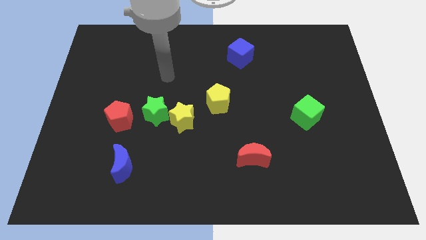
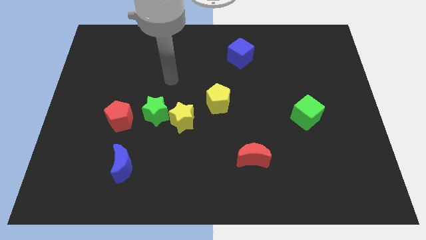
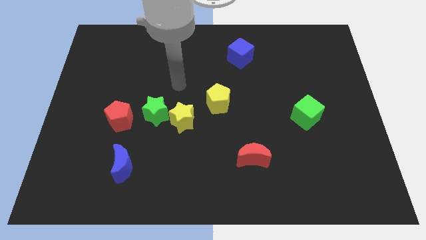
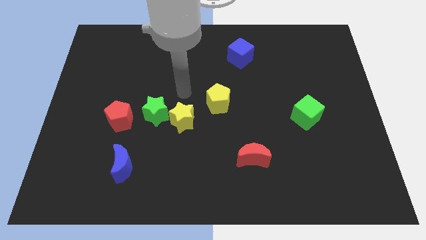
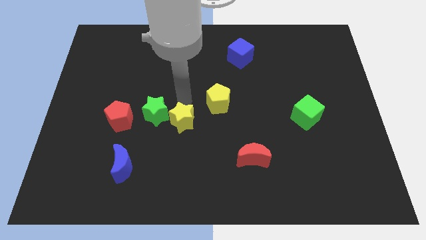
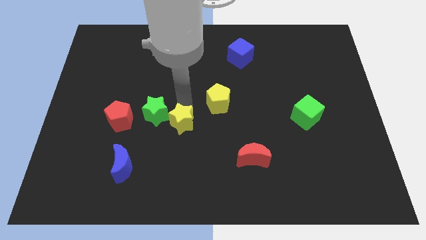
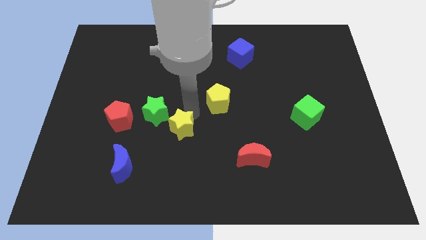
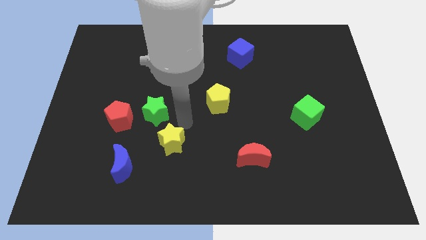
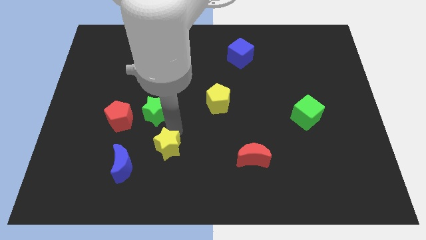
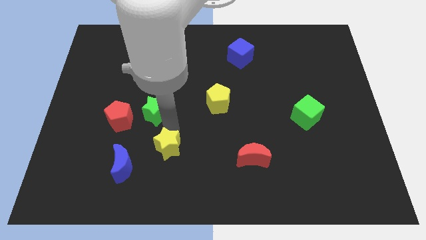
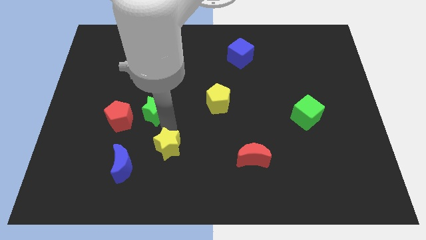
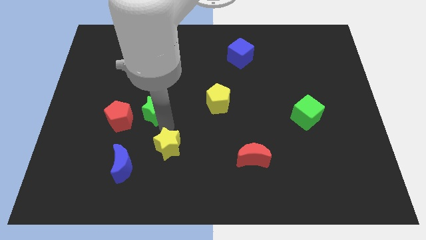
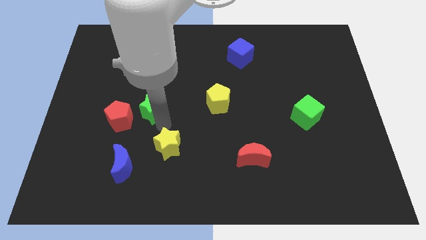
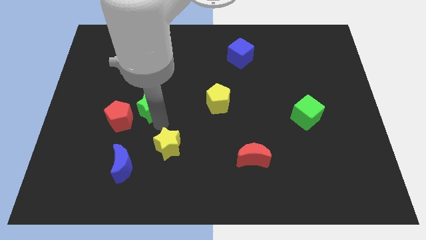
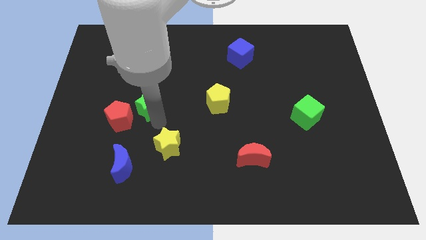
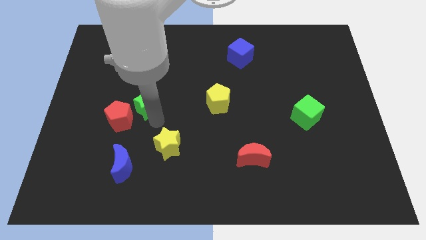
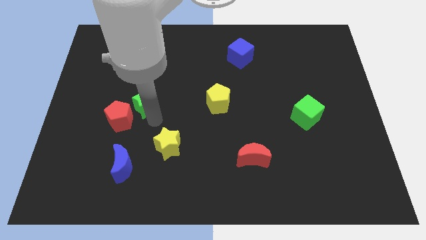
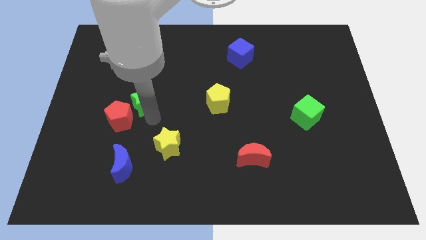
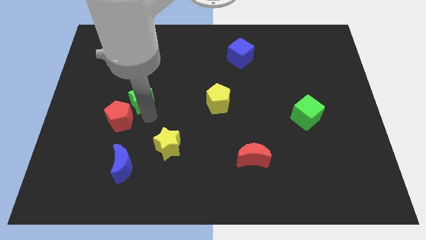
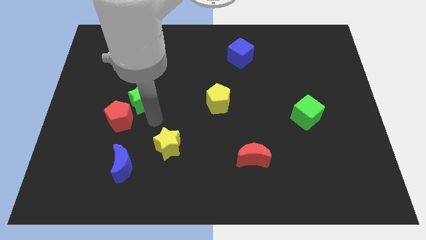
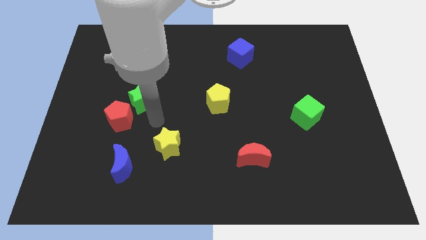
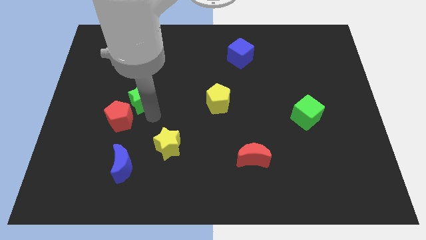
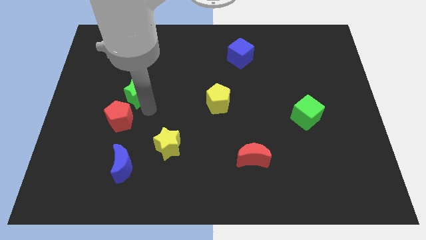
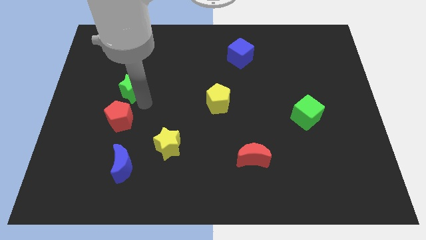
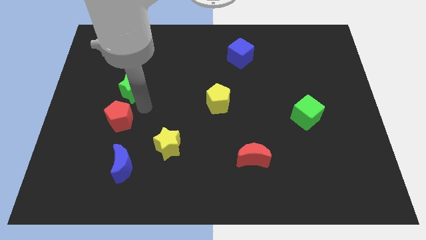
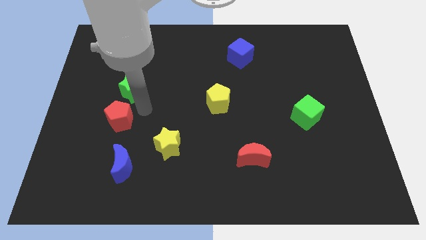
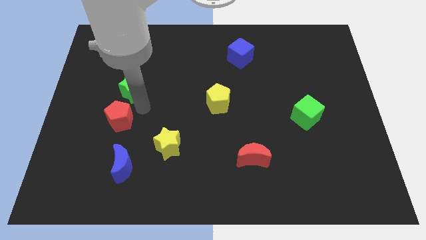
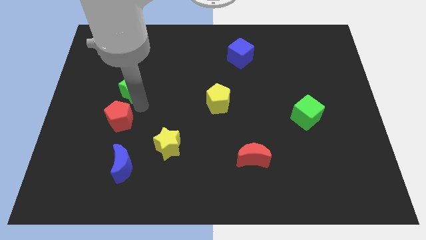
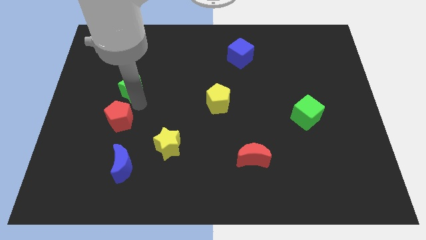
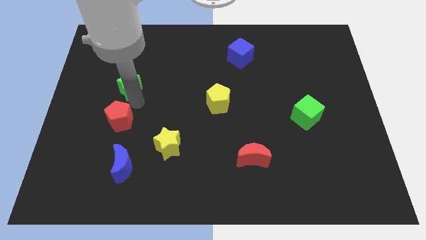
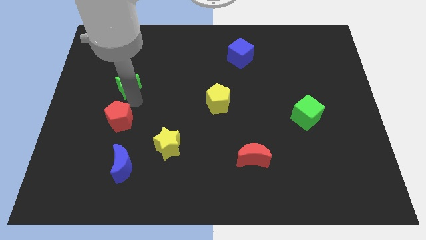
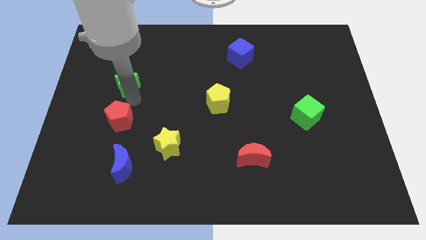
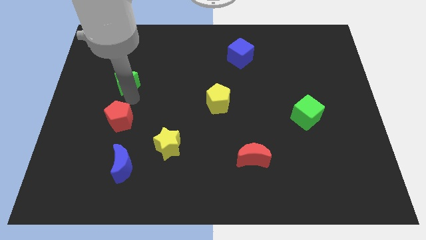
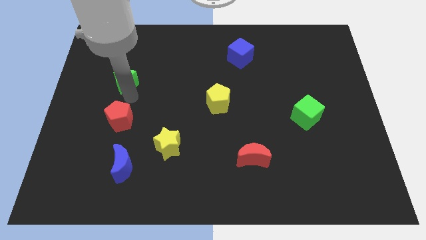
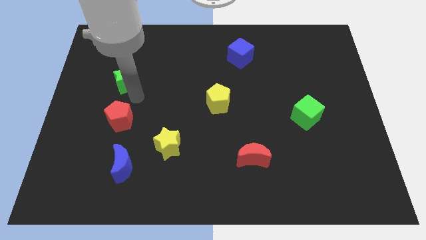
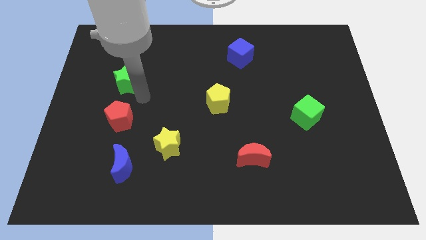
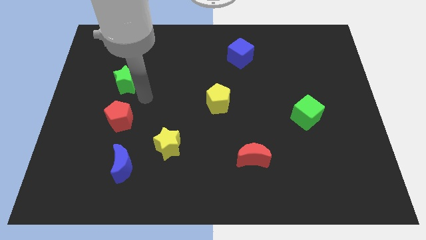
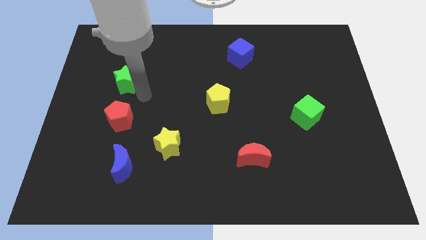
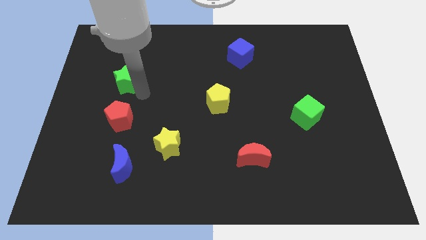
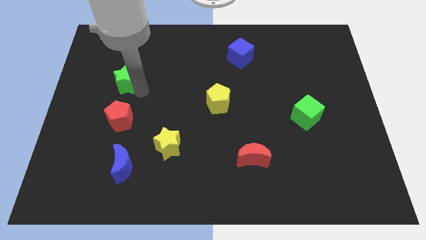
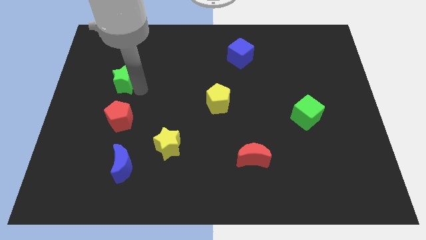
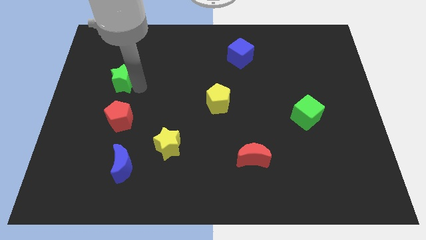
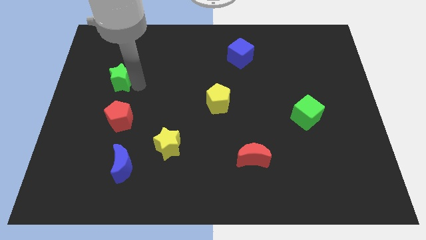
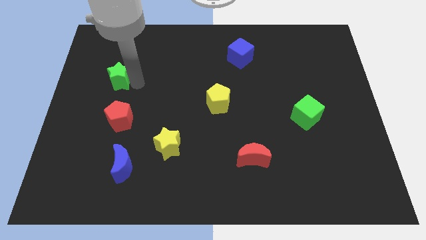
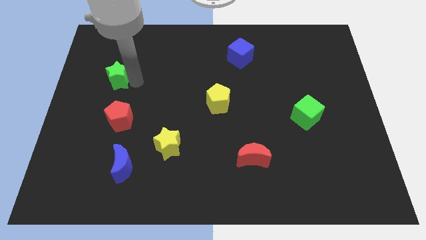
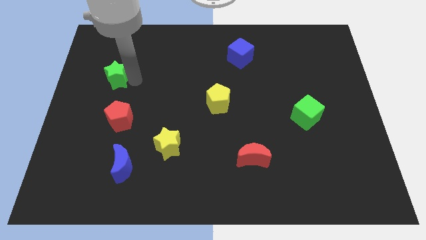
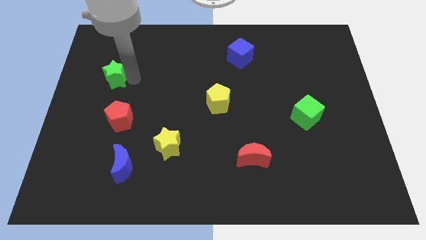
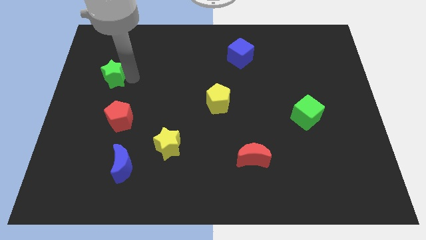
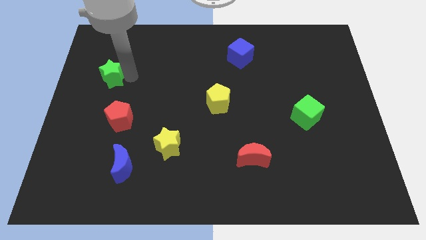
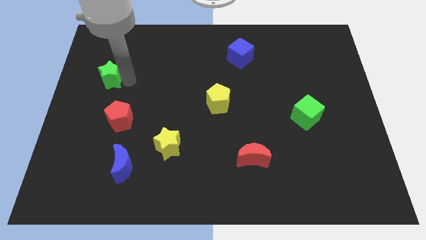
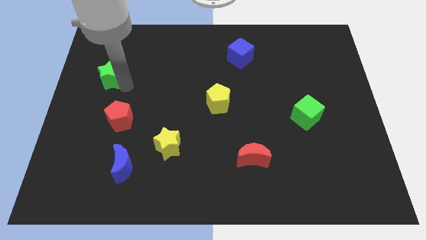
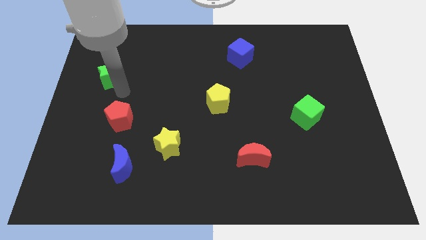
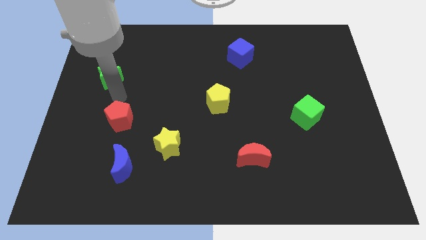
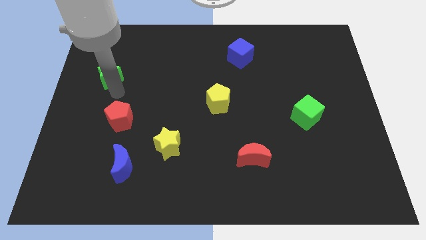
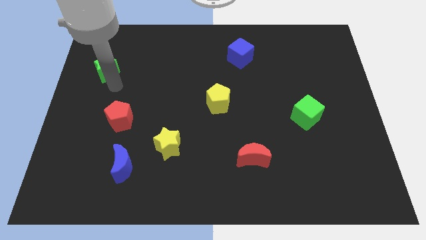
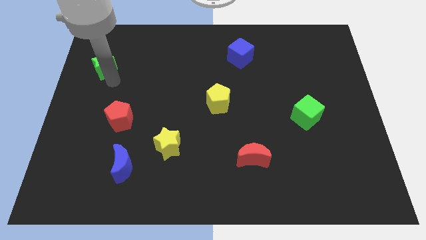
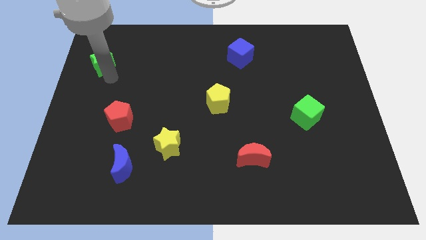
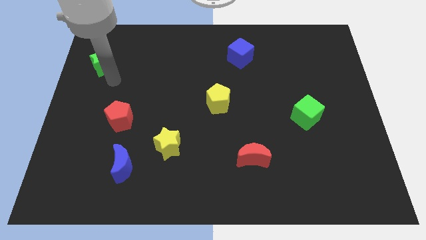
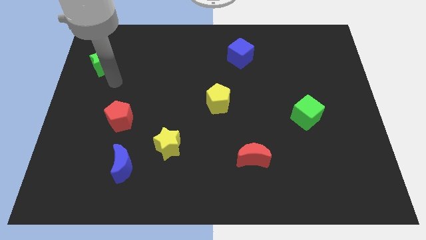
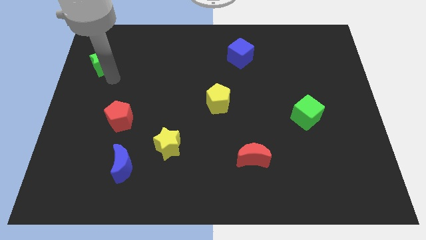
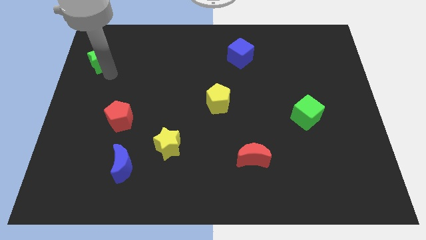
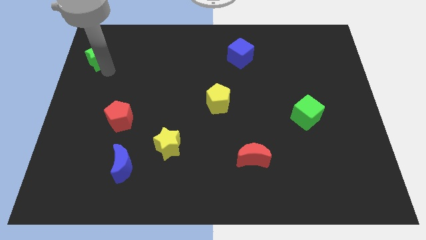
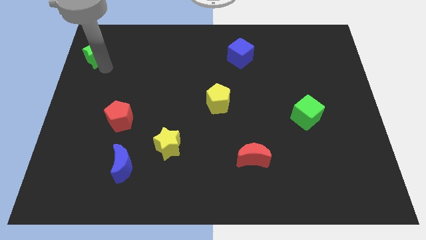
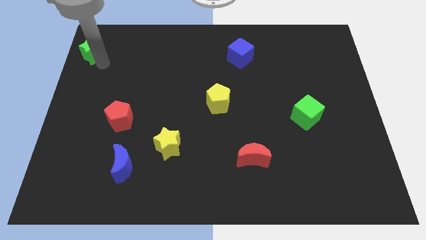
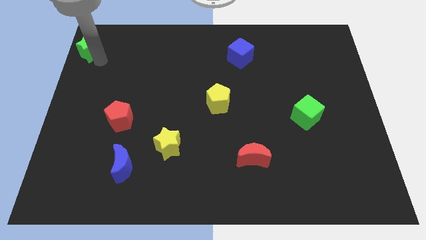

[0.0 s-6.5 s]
slide the green star to the top left corner
